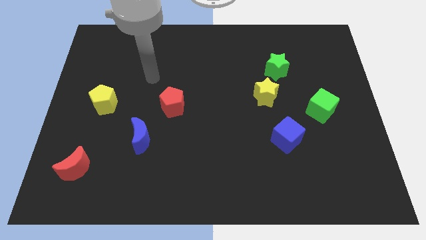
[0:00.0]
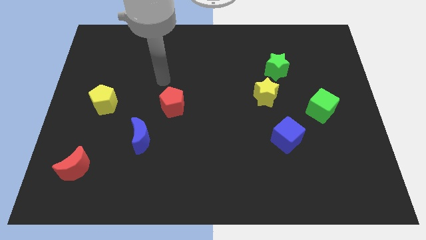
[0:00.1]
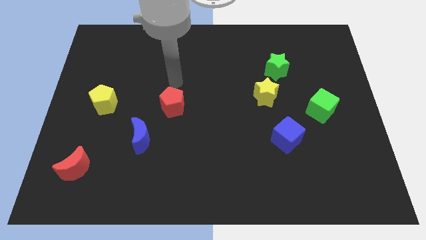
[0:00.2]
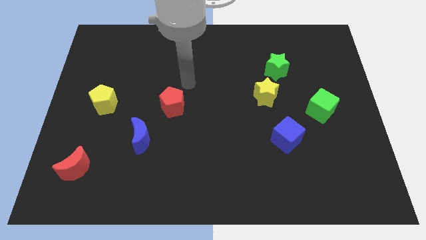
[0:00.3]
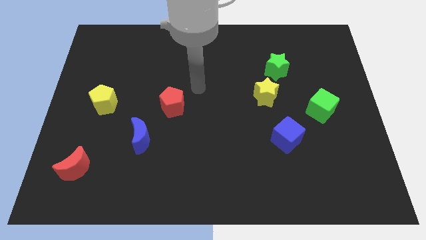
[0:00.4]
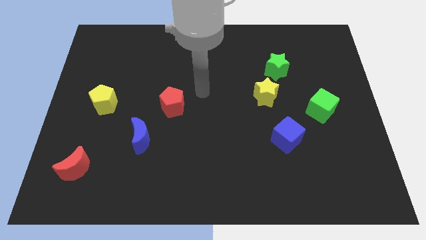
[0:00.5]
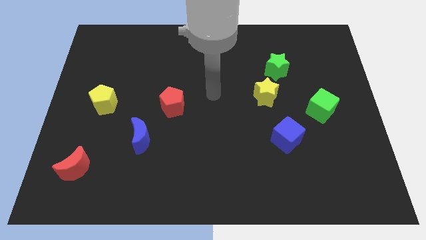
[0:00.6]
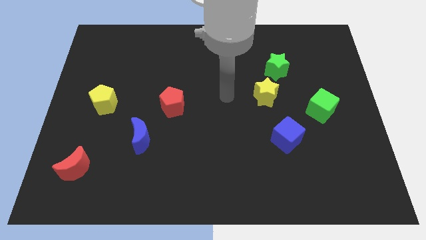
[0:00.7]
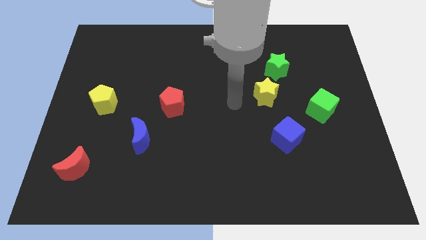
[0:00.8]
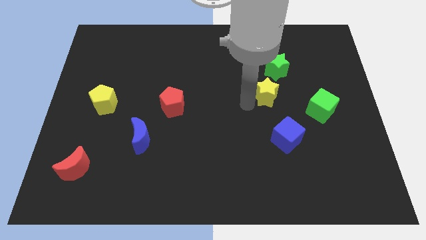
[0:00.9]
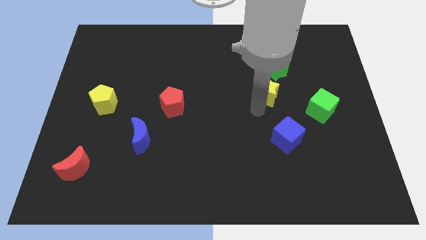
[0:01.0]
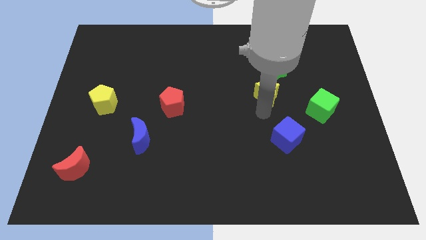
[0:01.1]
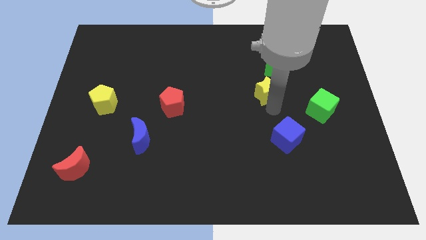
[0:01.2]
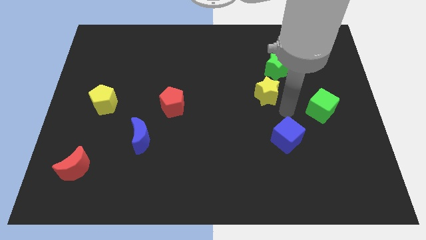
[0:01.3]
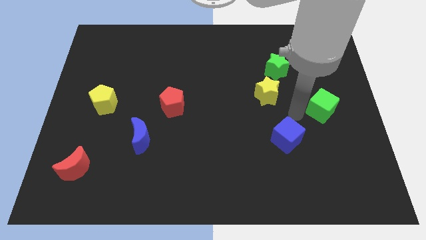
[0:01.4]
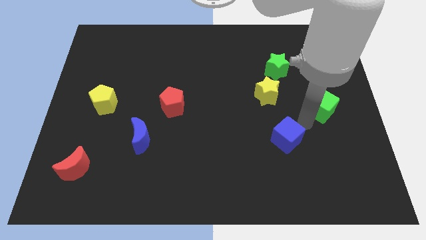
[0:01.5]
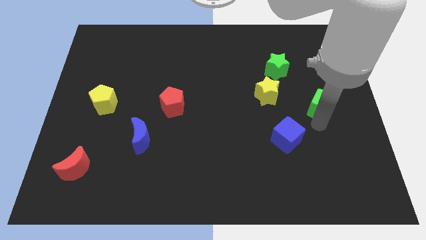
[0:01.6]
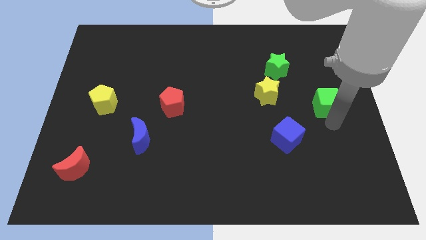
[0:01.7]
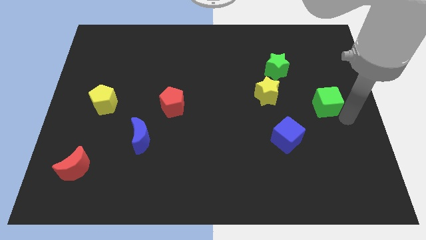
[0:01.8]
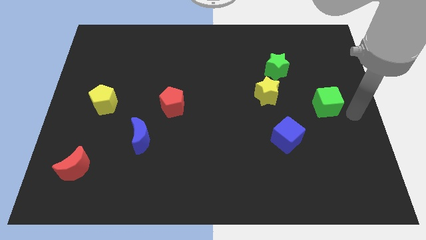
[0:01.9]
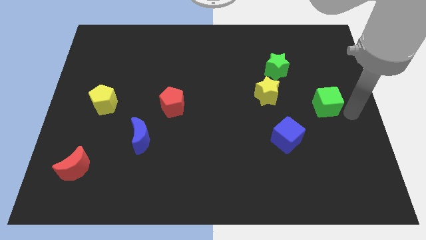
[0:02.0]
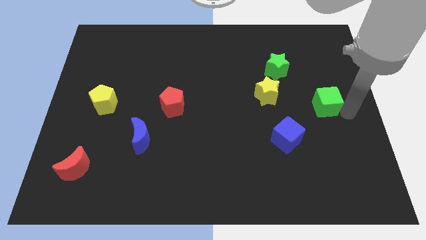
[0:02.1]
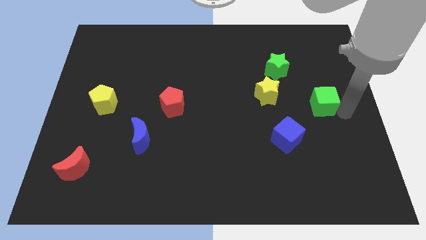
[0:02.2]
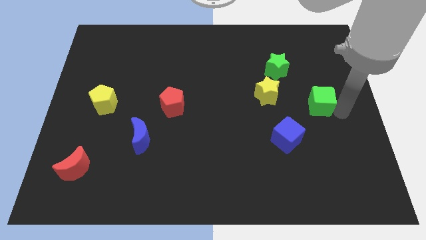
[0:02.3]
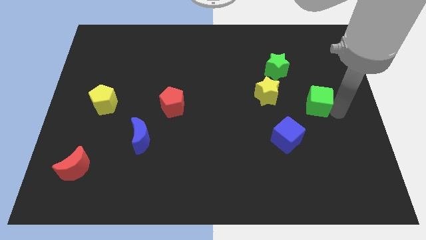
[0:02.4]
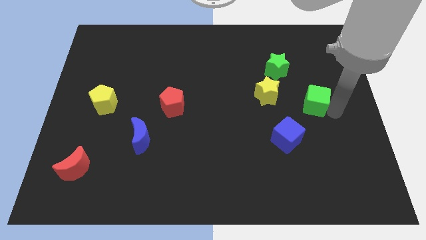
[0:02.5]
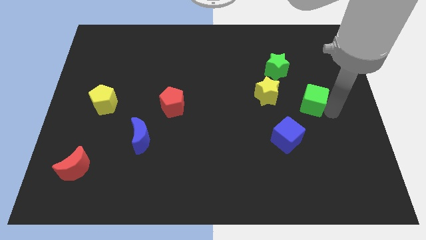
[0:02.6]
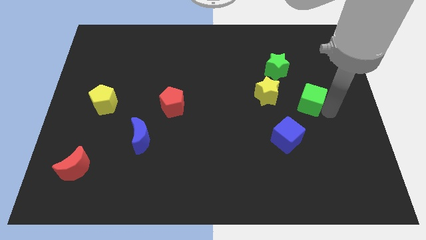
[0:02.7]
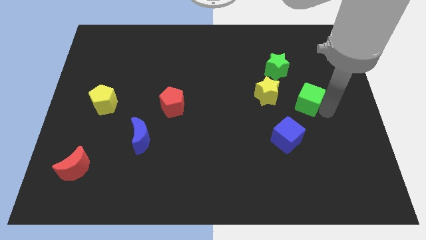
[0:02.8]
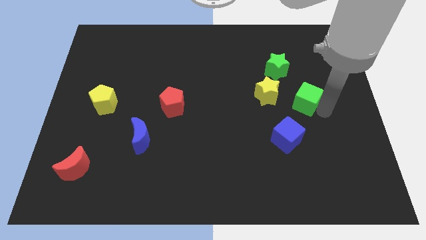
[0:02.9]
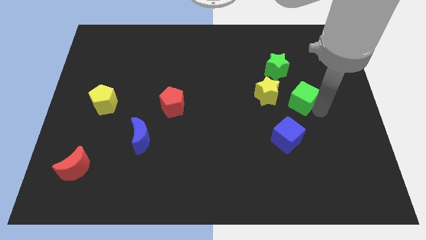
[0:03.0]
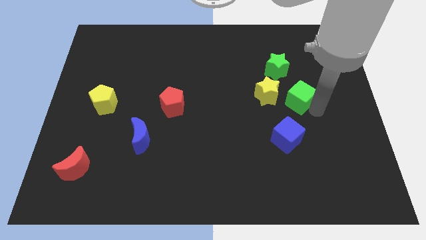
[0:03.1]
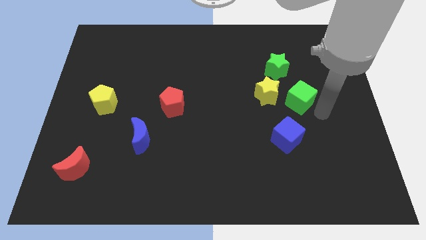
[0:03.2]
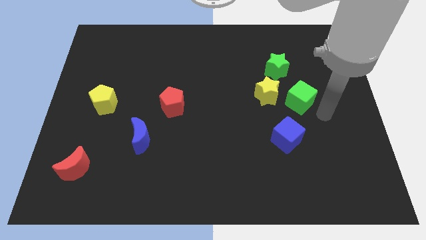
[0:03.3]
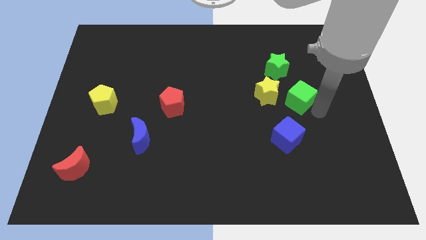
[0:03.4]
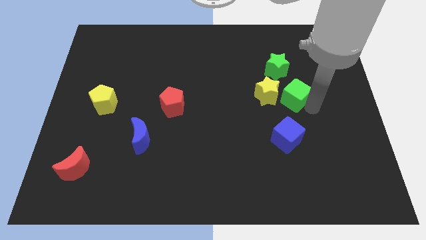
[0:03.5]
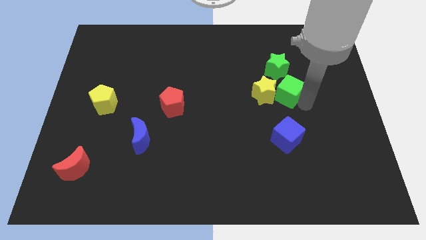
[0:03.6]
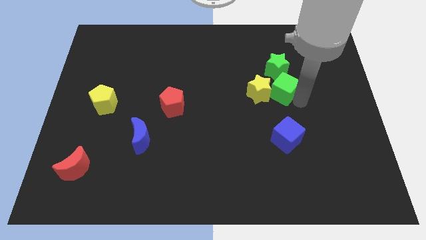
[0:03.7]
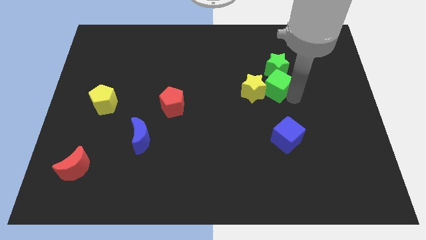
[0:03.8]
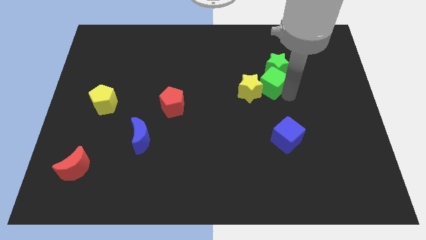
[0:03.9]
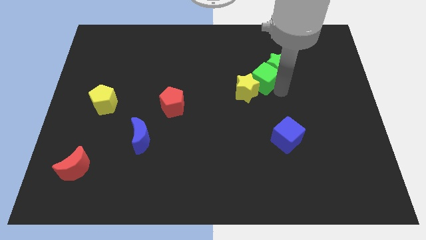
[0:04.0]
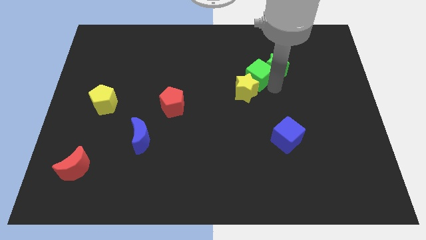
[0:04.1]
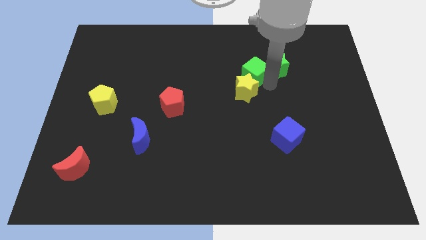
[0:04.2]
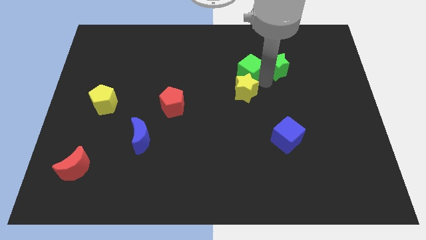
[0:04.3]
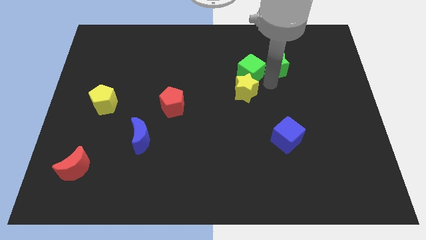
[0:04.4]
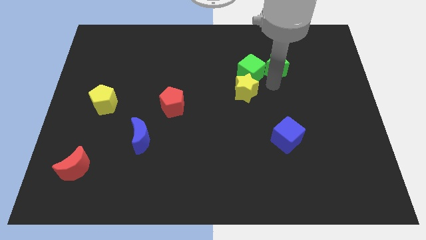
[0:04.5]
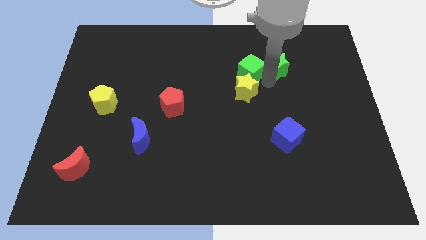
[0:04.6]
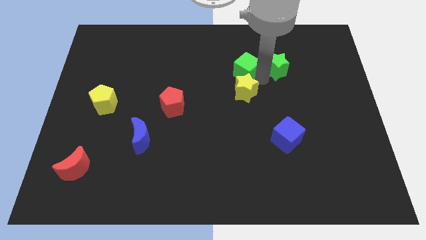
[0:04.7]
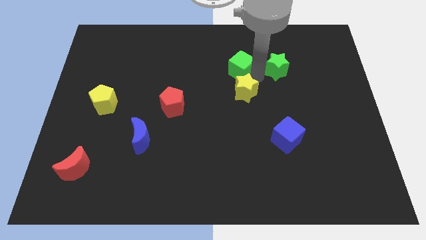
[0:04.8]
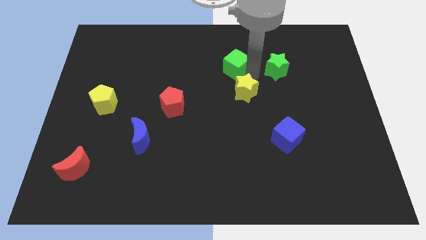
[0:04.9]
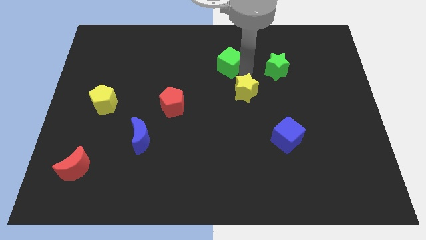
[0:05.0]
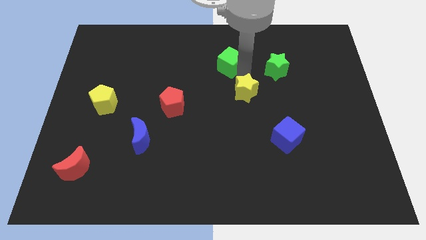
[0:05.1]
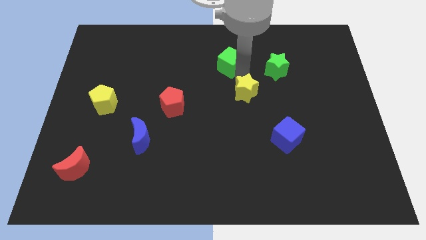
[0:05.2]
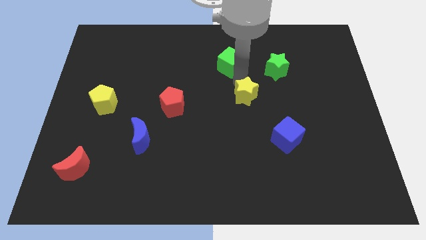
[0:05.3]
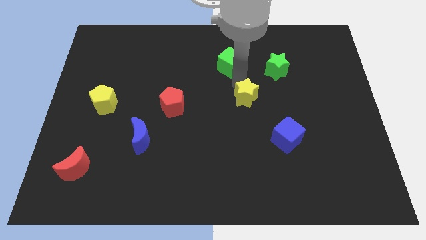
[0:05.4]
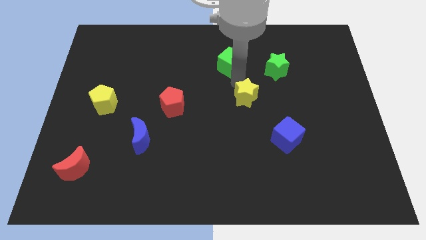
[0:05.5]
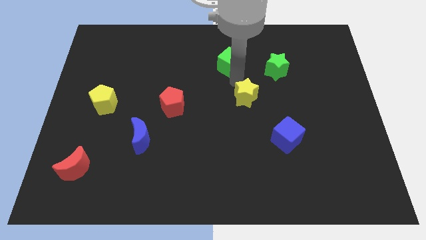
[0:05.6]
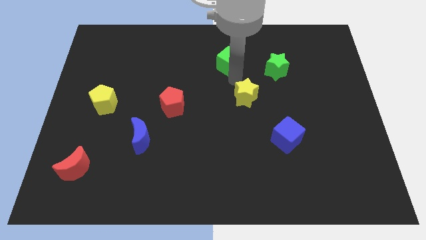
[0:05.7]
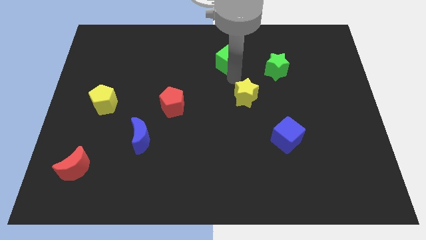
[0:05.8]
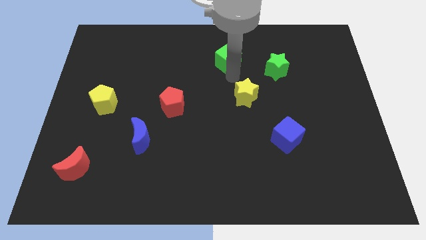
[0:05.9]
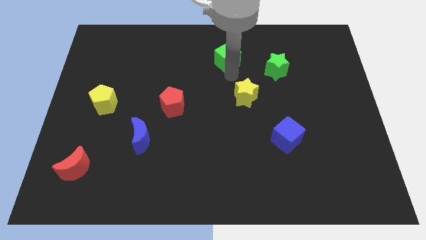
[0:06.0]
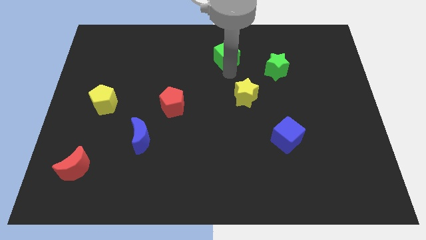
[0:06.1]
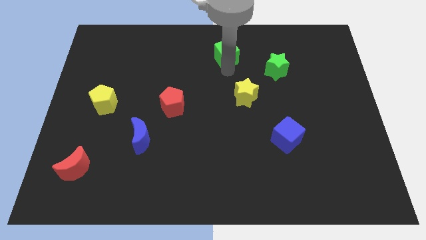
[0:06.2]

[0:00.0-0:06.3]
push the green cube to the top side
